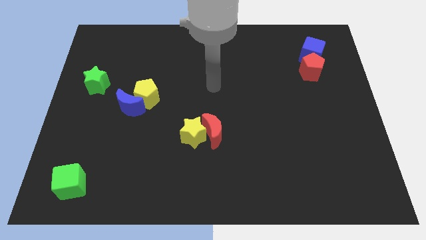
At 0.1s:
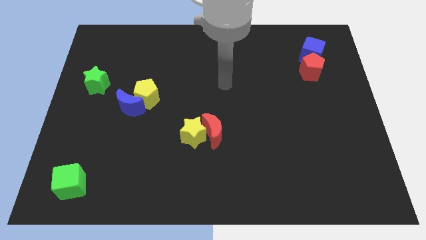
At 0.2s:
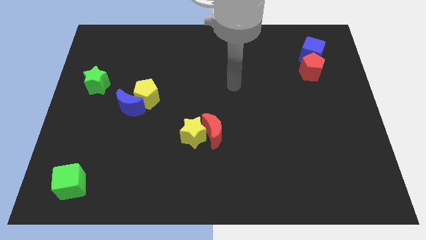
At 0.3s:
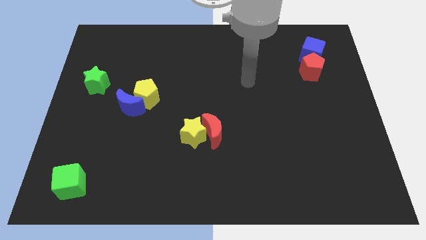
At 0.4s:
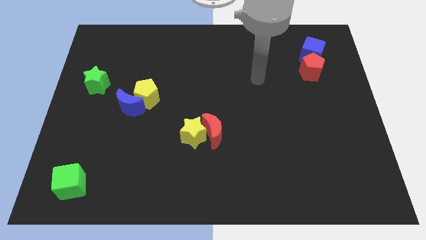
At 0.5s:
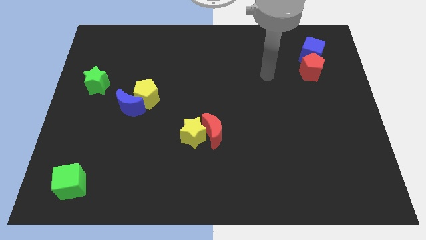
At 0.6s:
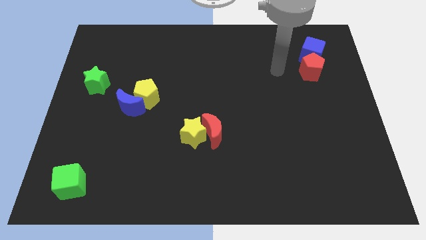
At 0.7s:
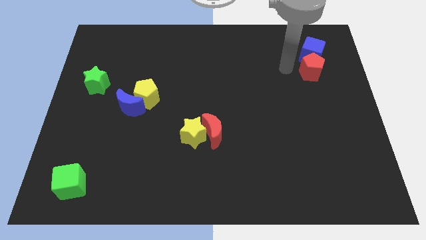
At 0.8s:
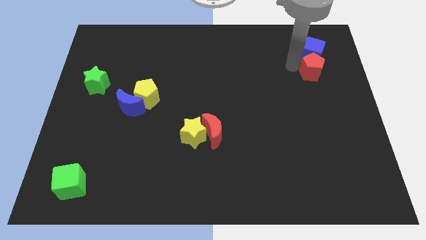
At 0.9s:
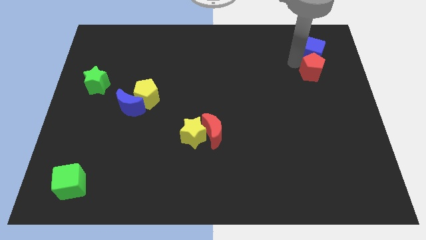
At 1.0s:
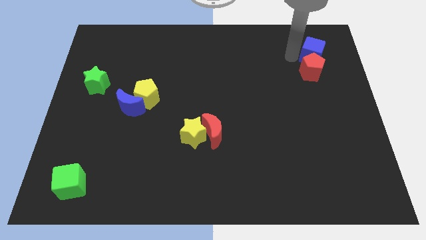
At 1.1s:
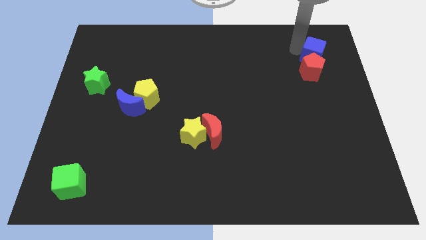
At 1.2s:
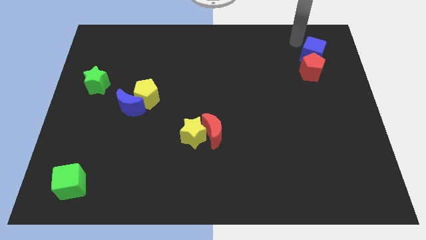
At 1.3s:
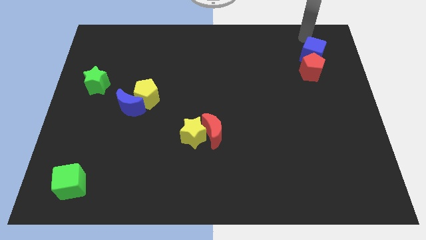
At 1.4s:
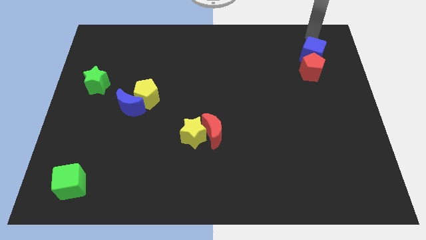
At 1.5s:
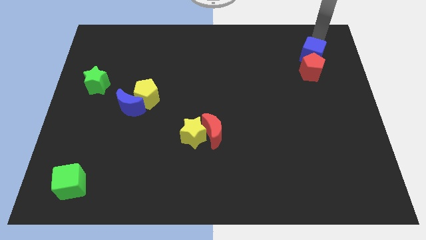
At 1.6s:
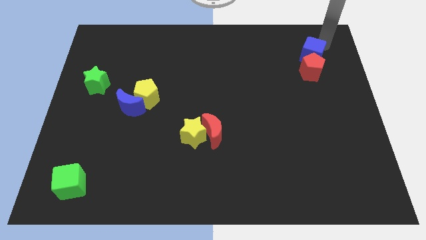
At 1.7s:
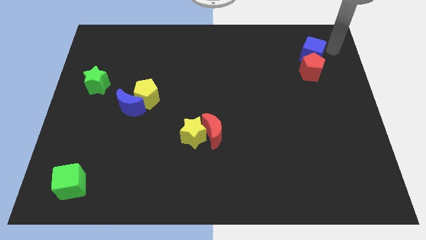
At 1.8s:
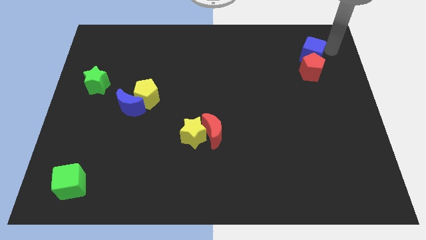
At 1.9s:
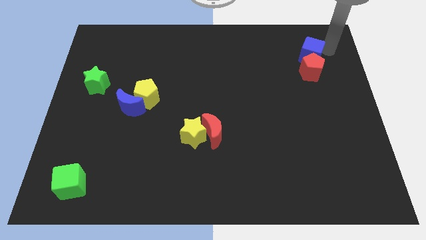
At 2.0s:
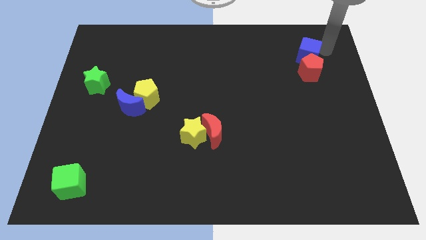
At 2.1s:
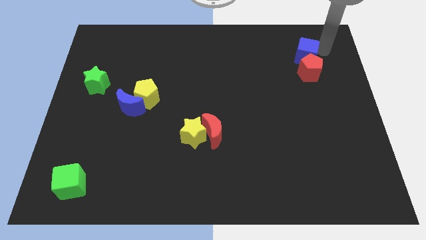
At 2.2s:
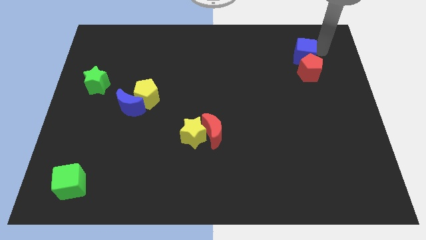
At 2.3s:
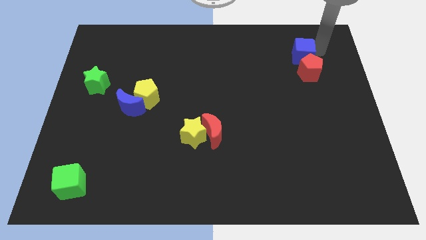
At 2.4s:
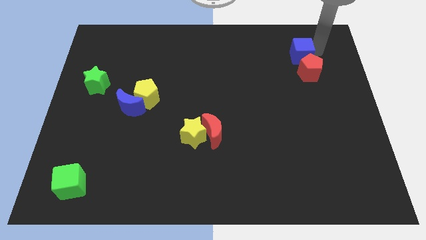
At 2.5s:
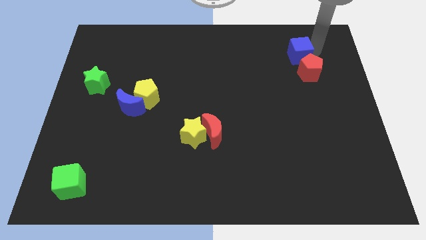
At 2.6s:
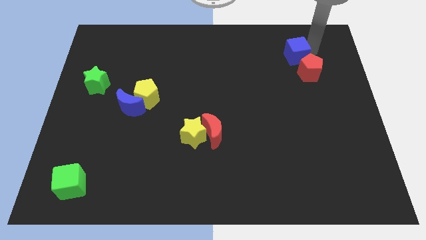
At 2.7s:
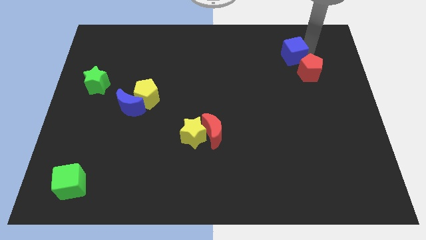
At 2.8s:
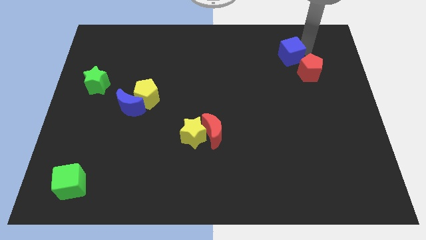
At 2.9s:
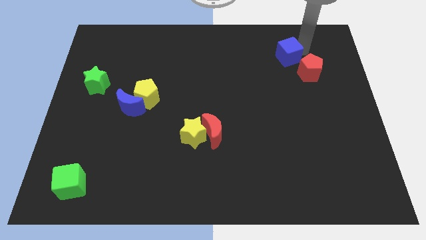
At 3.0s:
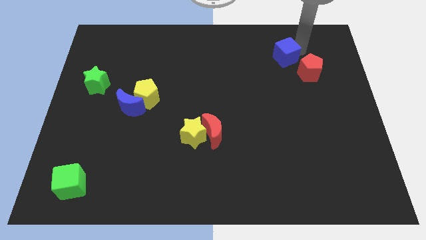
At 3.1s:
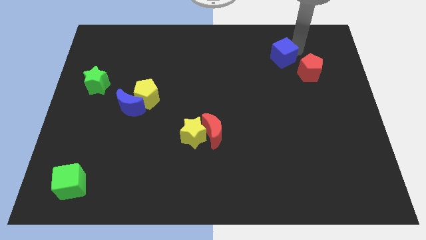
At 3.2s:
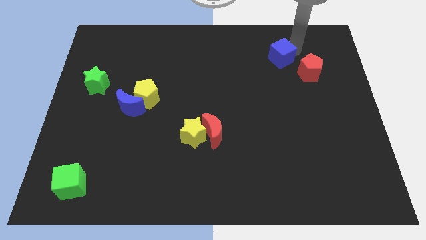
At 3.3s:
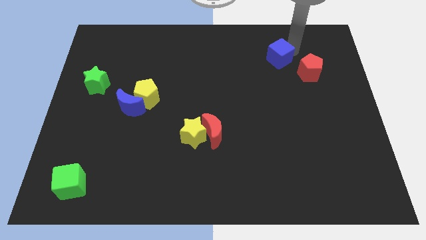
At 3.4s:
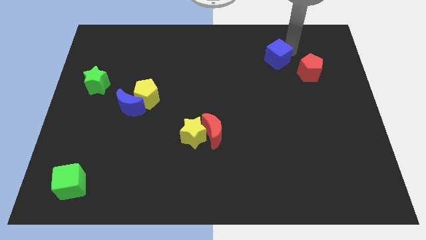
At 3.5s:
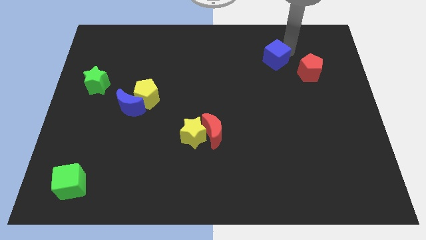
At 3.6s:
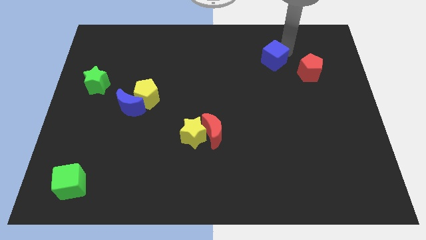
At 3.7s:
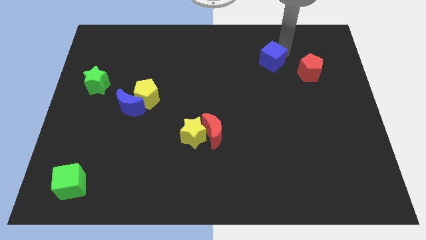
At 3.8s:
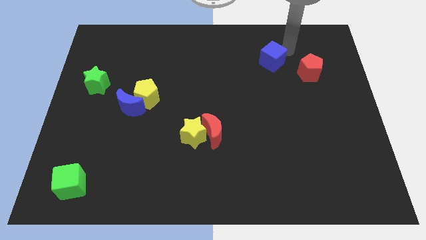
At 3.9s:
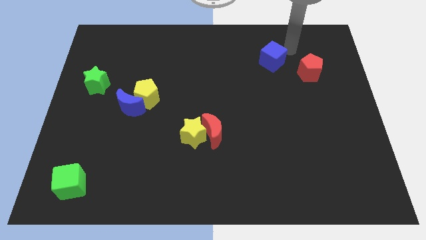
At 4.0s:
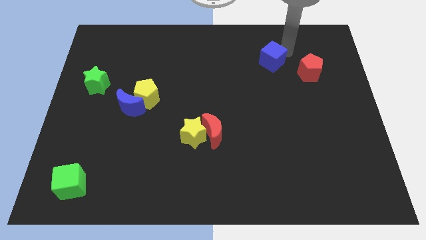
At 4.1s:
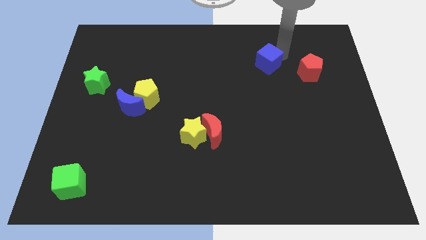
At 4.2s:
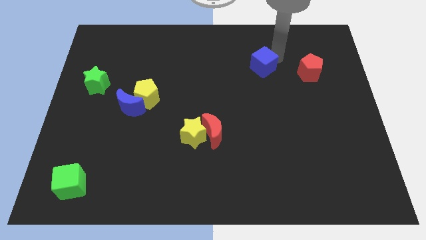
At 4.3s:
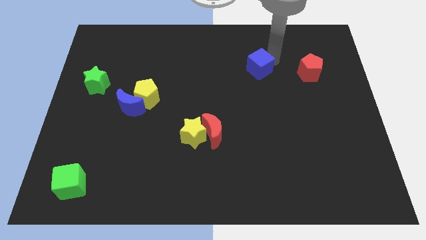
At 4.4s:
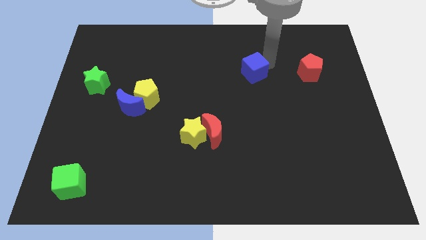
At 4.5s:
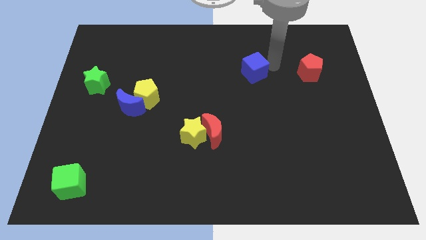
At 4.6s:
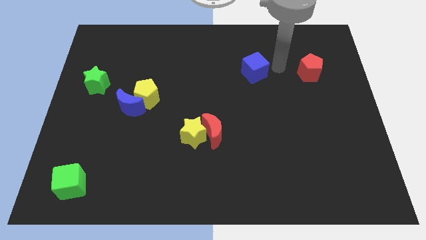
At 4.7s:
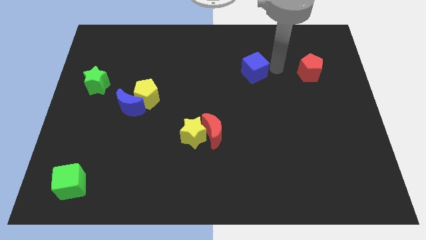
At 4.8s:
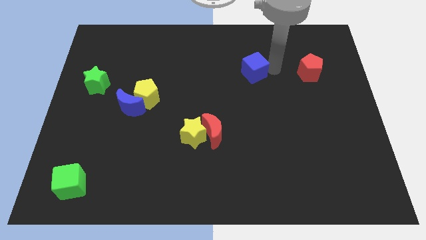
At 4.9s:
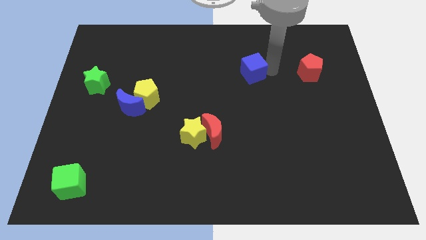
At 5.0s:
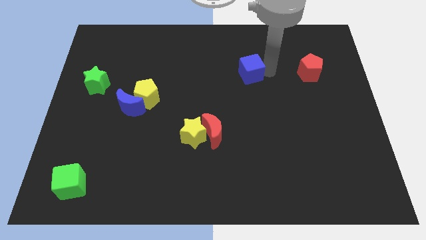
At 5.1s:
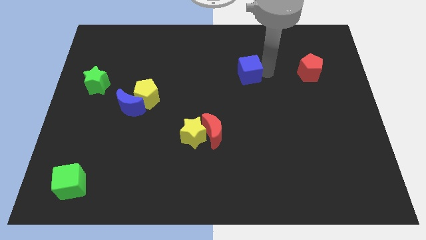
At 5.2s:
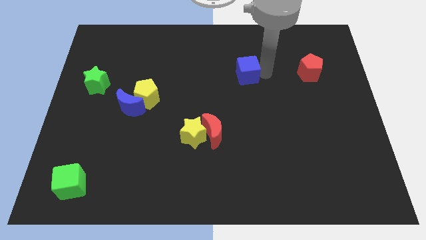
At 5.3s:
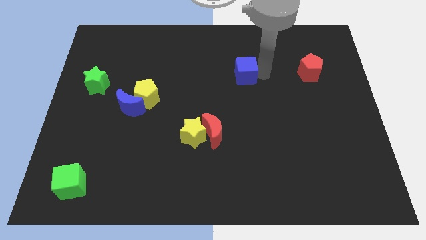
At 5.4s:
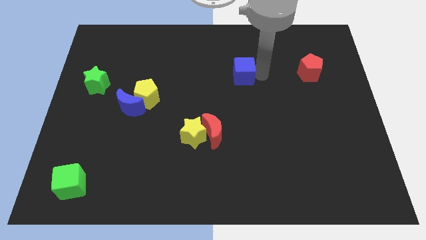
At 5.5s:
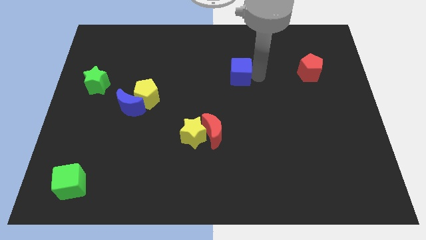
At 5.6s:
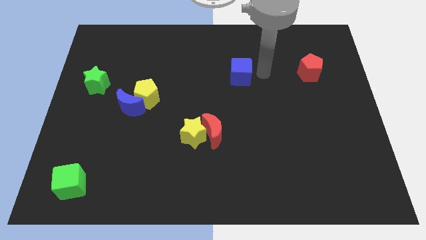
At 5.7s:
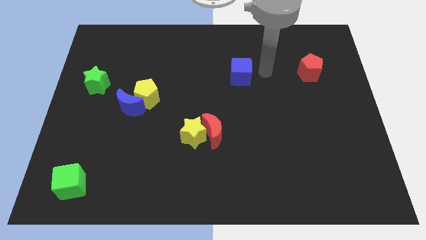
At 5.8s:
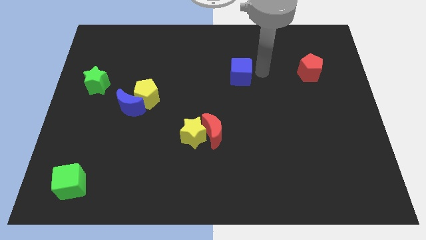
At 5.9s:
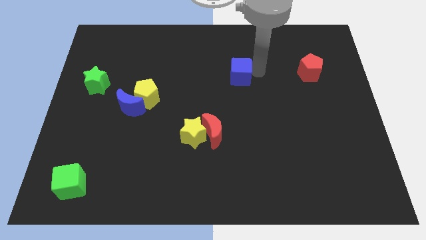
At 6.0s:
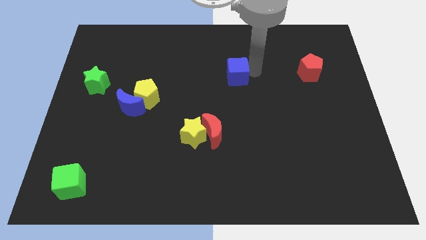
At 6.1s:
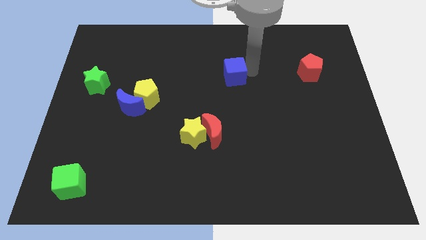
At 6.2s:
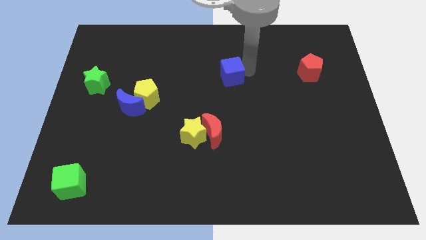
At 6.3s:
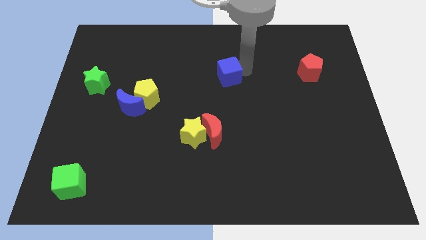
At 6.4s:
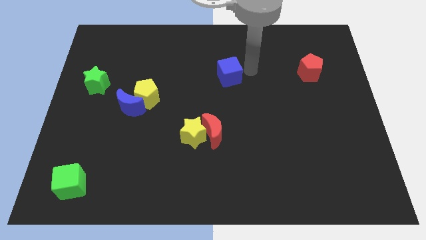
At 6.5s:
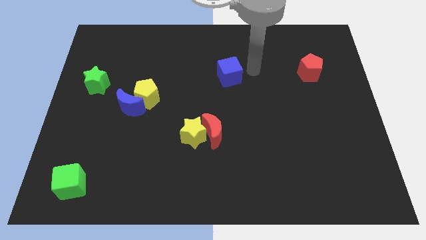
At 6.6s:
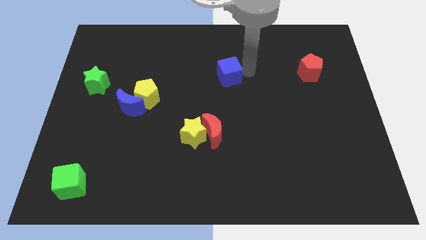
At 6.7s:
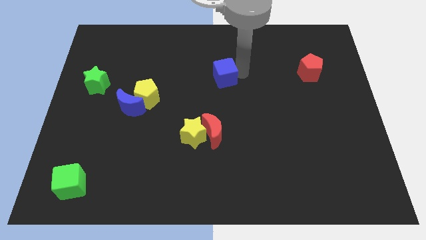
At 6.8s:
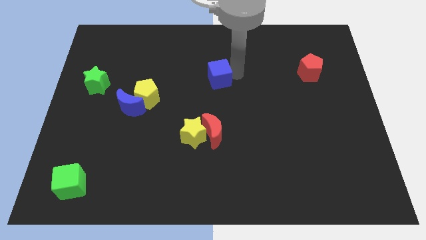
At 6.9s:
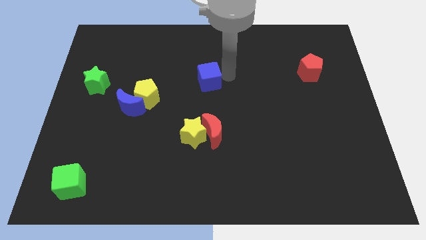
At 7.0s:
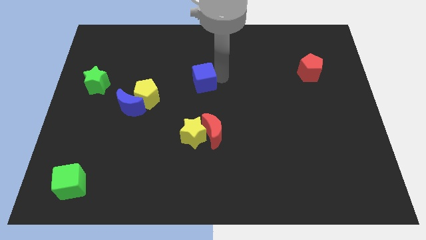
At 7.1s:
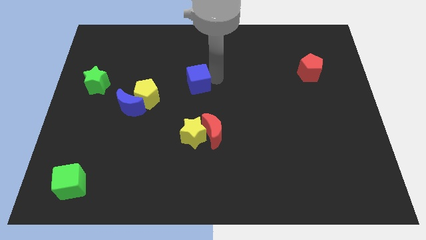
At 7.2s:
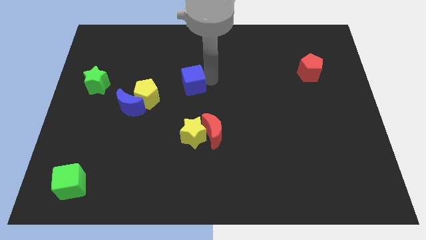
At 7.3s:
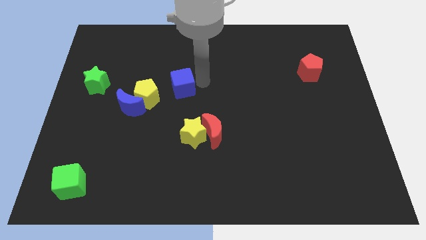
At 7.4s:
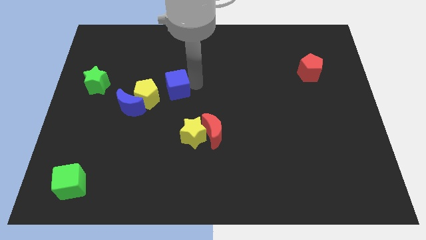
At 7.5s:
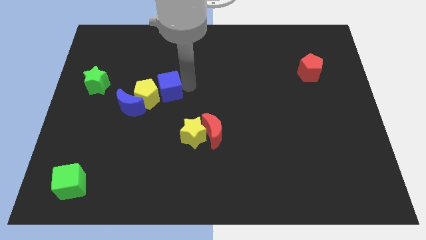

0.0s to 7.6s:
put the blue cube diagonally up and to the right of the blue moon
